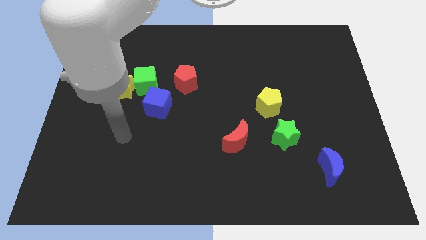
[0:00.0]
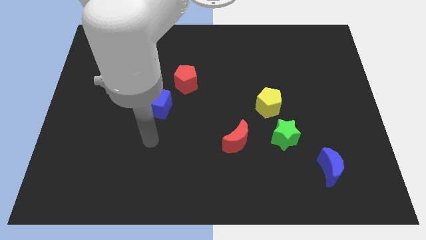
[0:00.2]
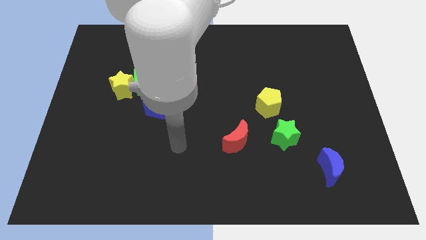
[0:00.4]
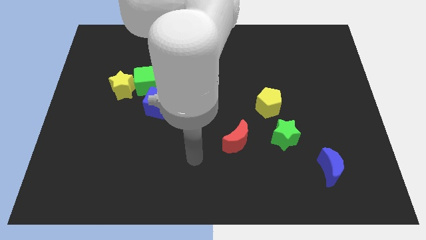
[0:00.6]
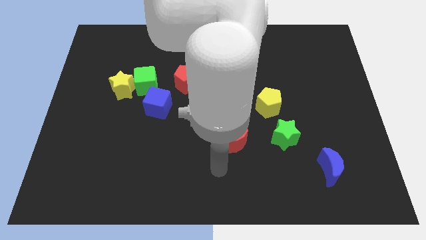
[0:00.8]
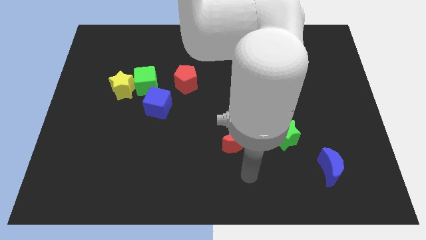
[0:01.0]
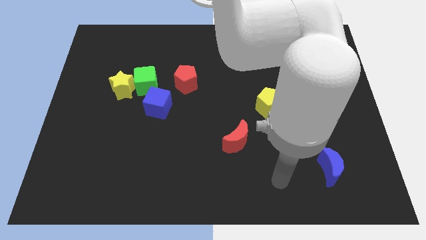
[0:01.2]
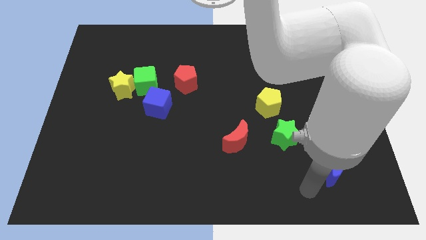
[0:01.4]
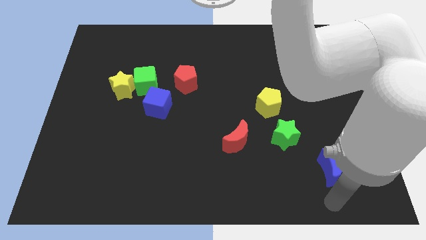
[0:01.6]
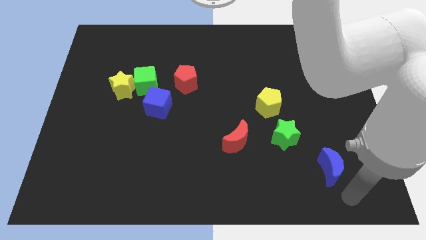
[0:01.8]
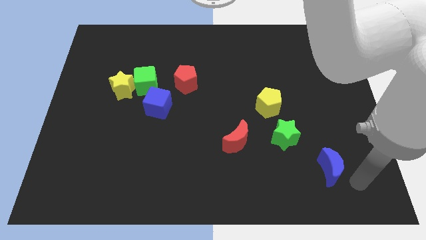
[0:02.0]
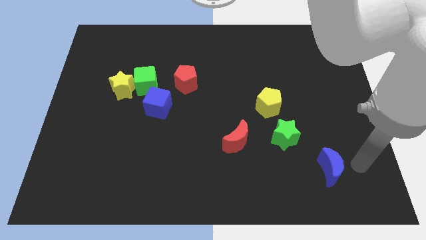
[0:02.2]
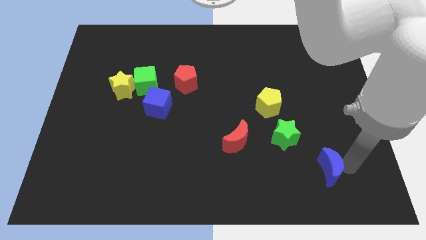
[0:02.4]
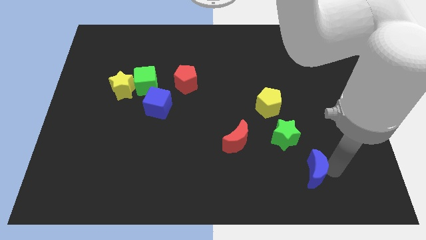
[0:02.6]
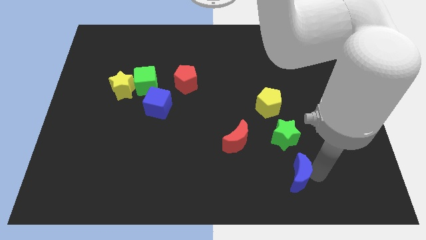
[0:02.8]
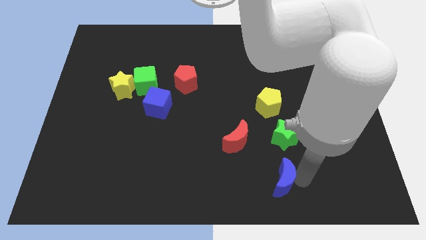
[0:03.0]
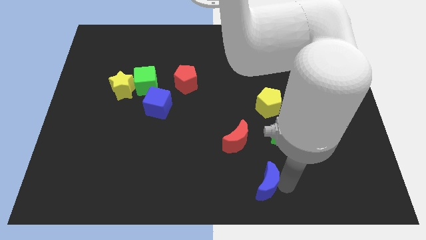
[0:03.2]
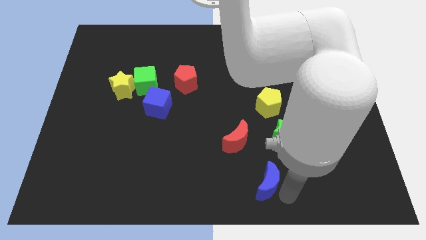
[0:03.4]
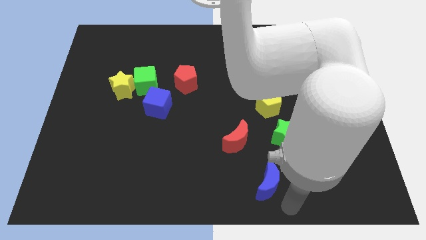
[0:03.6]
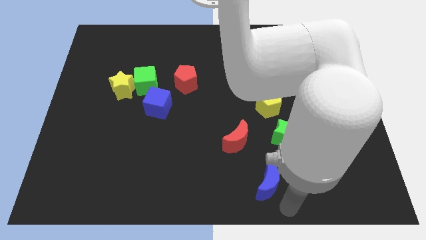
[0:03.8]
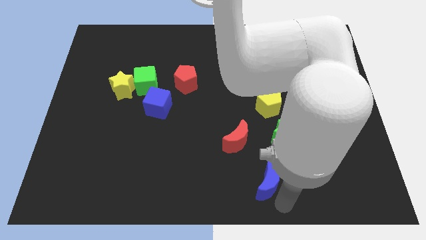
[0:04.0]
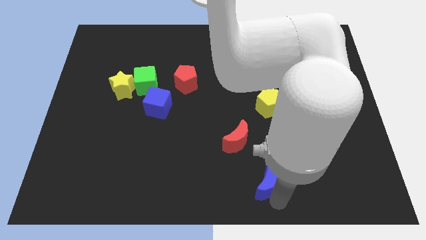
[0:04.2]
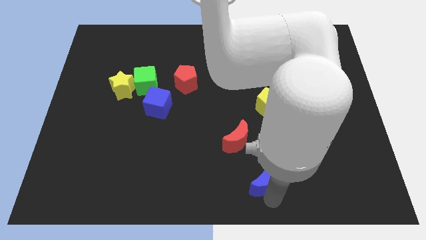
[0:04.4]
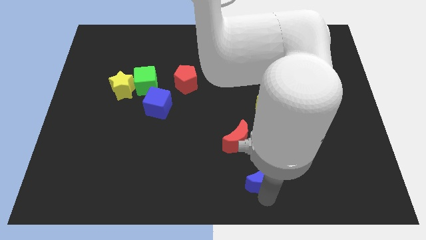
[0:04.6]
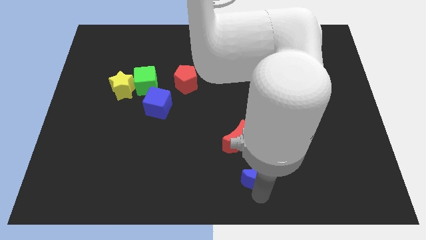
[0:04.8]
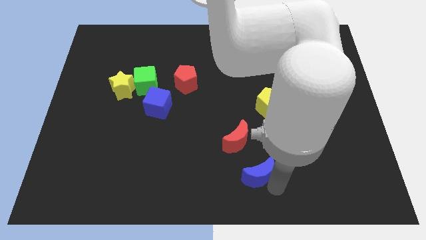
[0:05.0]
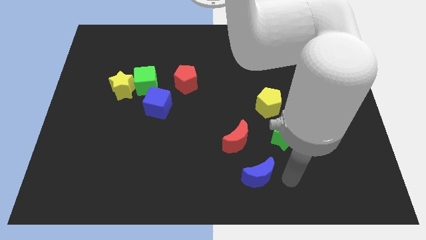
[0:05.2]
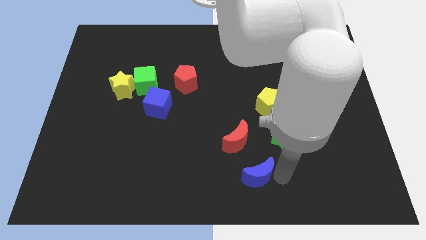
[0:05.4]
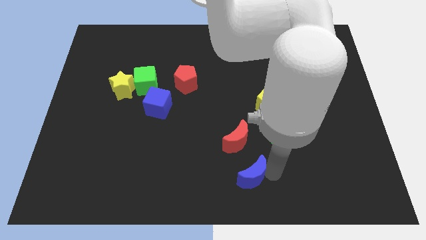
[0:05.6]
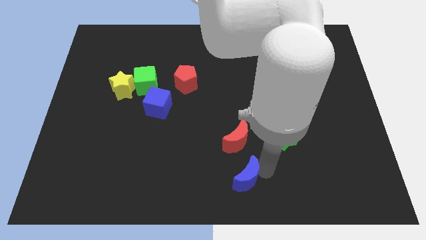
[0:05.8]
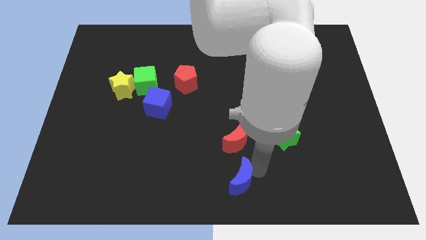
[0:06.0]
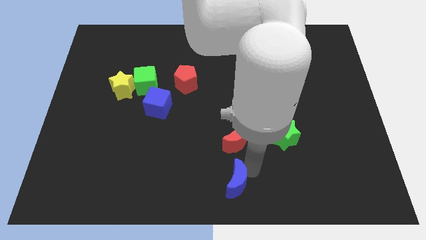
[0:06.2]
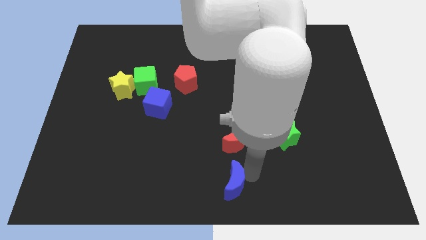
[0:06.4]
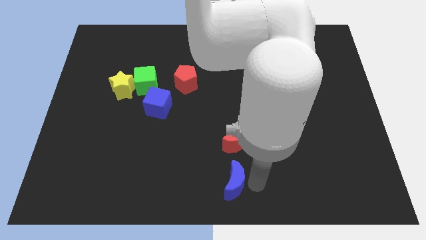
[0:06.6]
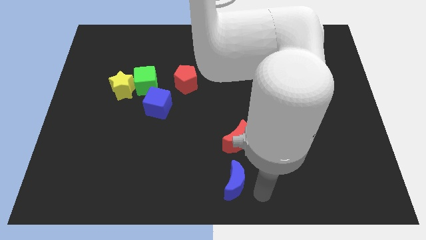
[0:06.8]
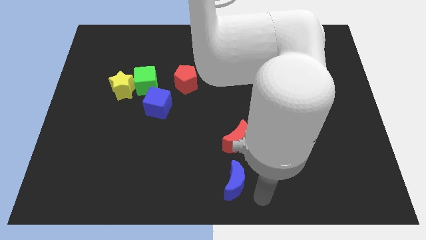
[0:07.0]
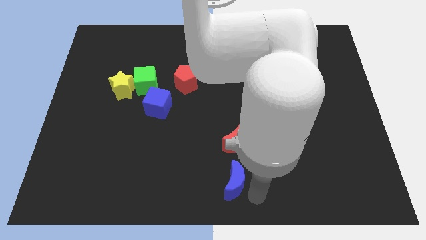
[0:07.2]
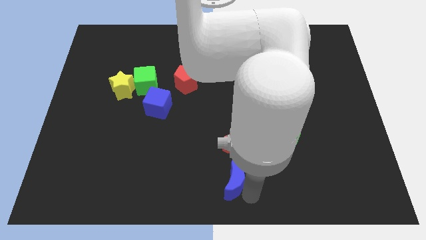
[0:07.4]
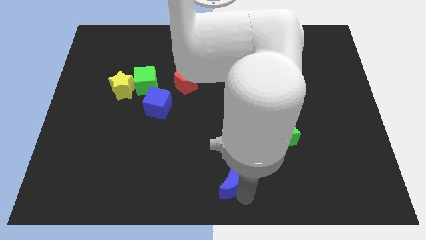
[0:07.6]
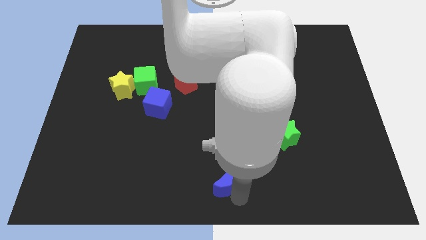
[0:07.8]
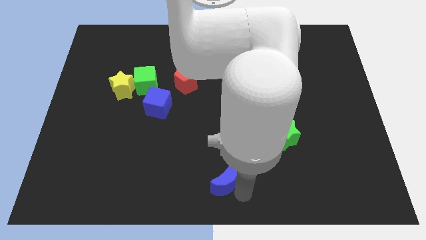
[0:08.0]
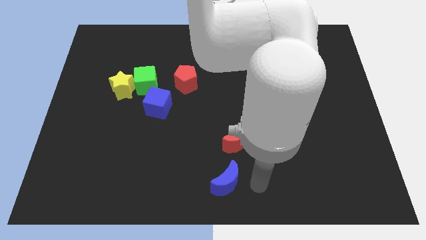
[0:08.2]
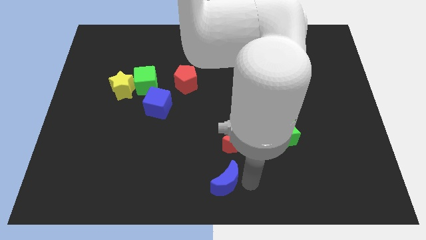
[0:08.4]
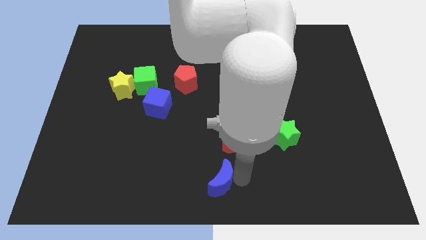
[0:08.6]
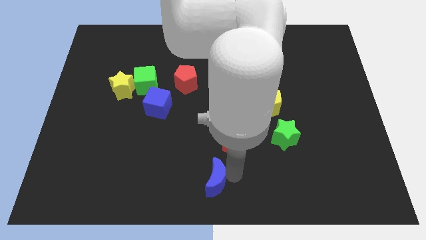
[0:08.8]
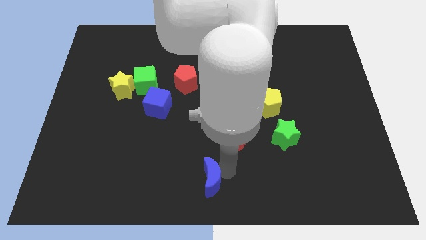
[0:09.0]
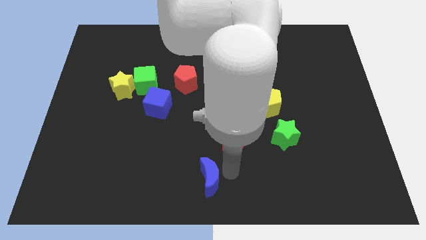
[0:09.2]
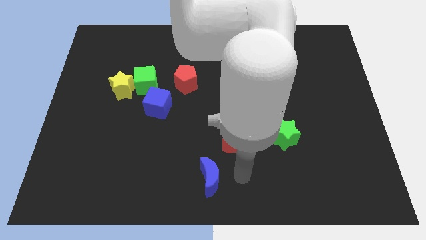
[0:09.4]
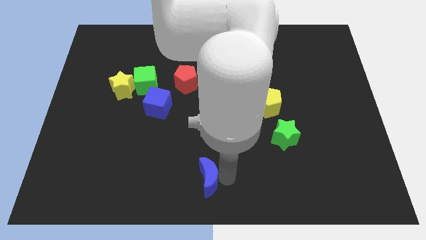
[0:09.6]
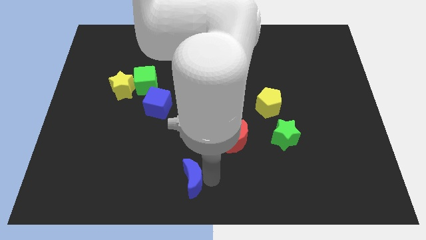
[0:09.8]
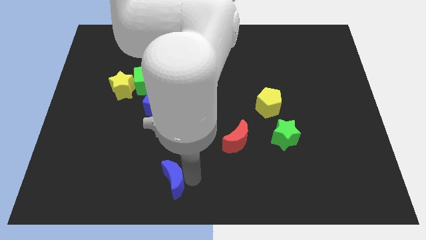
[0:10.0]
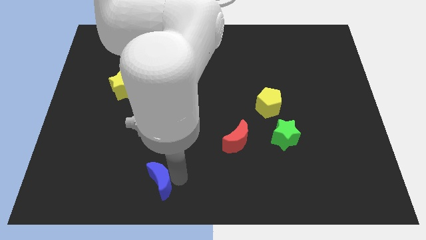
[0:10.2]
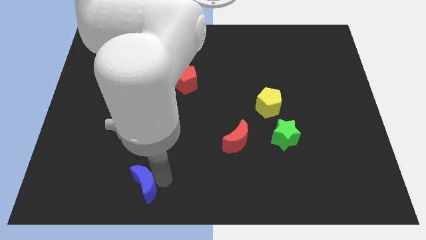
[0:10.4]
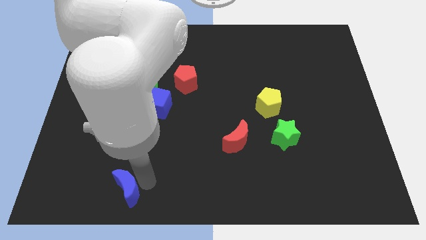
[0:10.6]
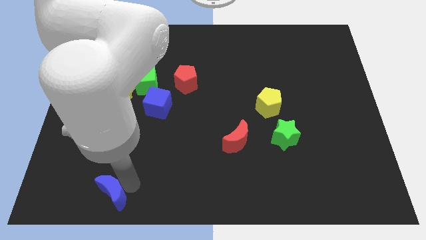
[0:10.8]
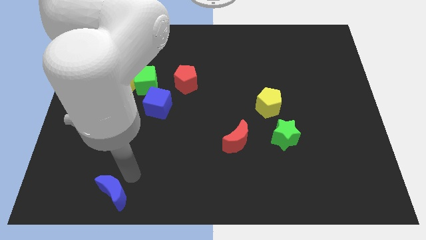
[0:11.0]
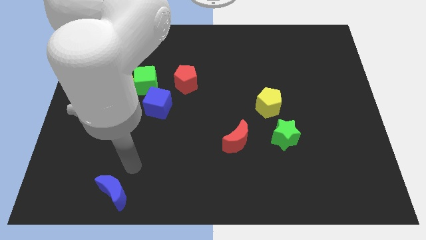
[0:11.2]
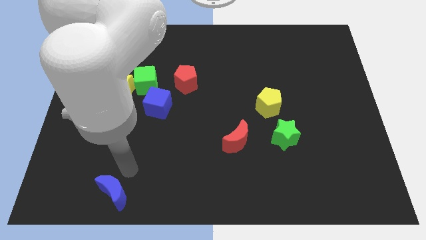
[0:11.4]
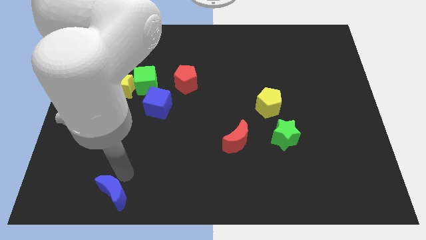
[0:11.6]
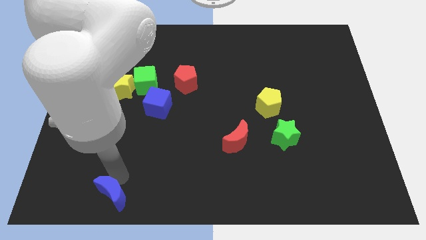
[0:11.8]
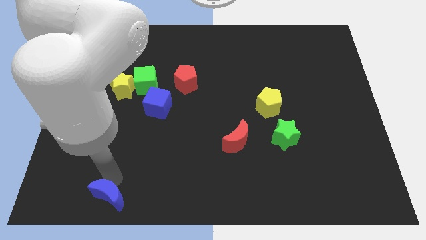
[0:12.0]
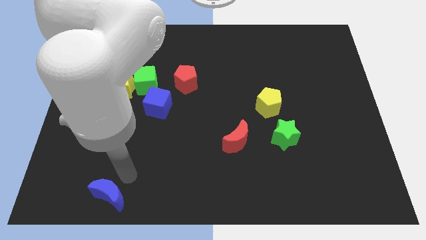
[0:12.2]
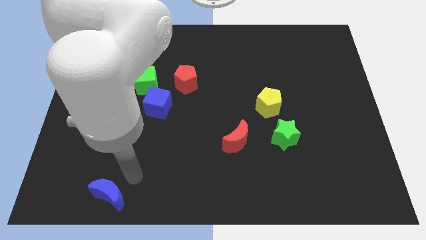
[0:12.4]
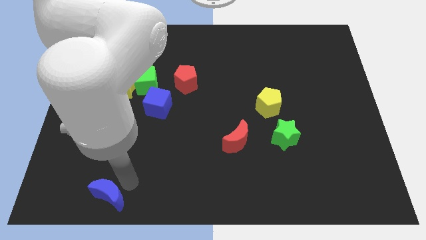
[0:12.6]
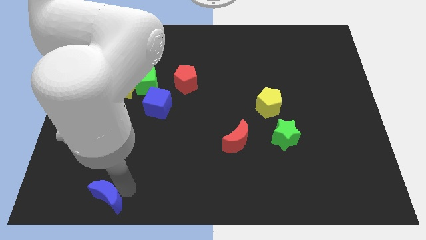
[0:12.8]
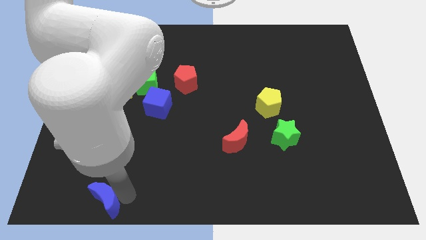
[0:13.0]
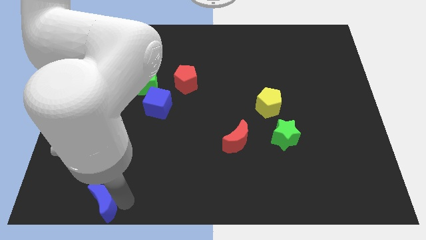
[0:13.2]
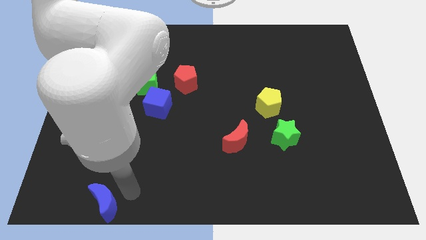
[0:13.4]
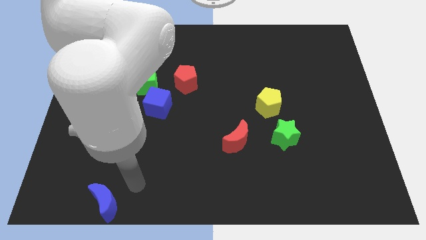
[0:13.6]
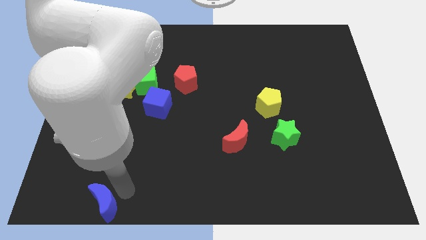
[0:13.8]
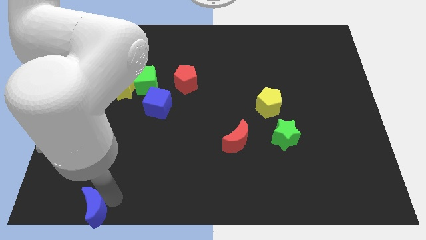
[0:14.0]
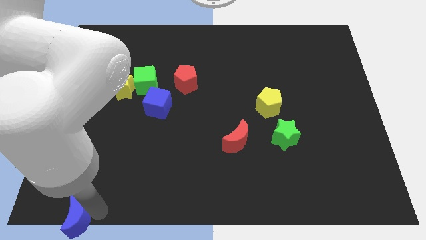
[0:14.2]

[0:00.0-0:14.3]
put the blue moon to the bottom left corner
